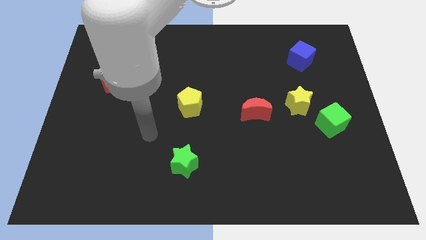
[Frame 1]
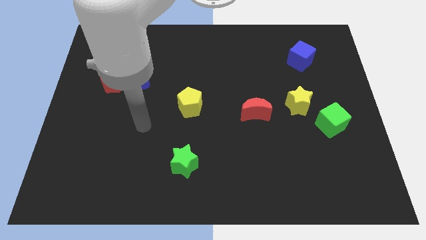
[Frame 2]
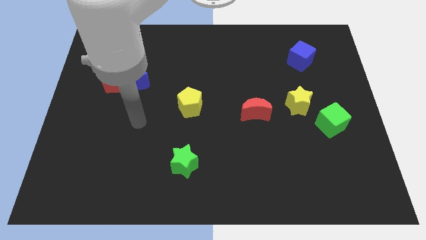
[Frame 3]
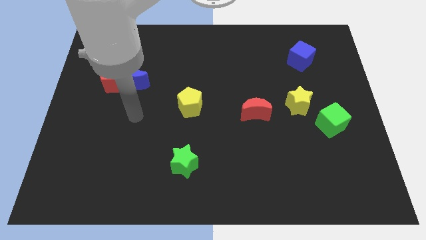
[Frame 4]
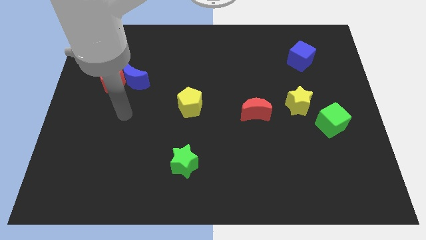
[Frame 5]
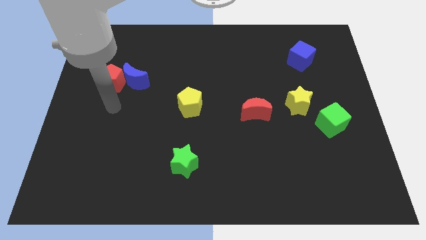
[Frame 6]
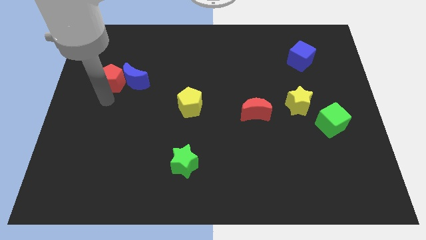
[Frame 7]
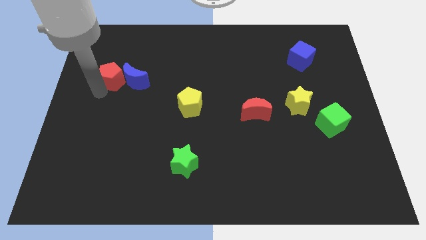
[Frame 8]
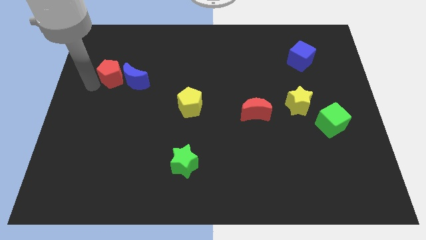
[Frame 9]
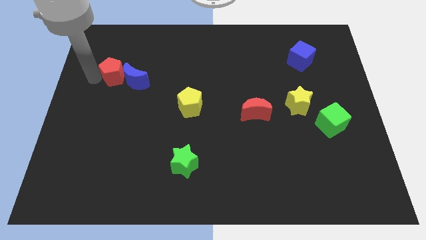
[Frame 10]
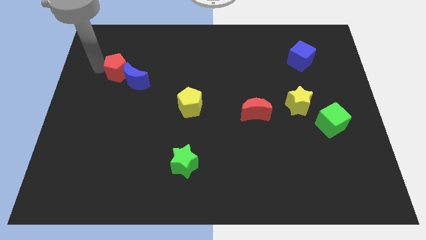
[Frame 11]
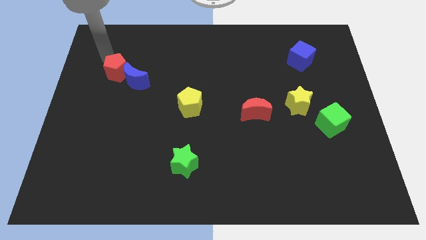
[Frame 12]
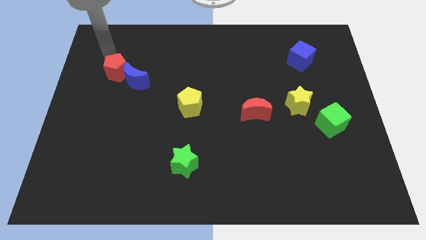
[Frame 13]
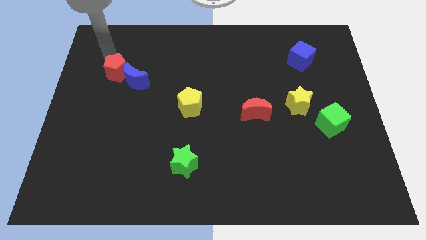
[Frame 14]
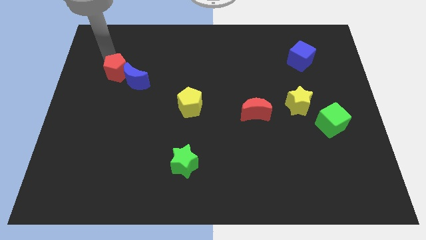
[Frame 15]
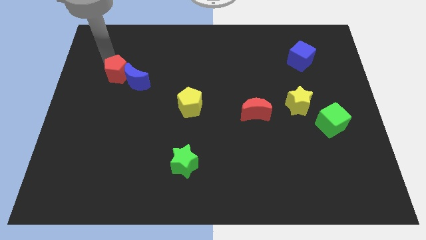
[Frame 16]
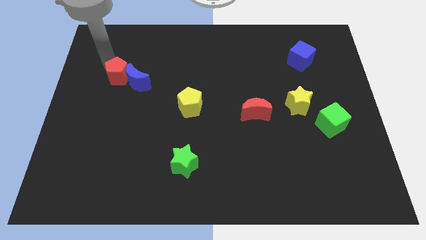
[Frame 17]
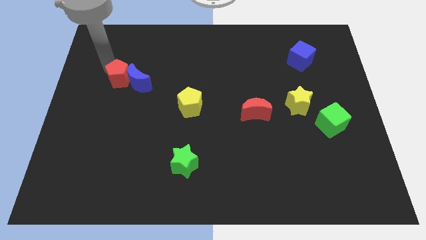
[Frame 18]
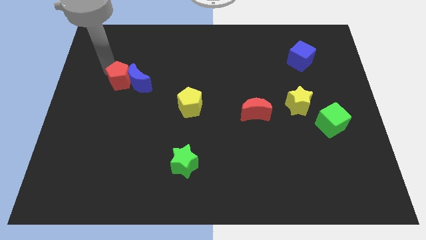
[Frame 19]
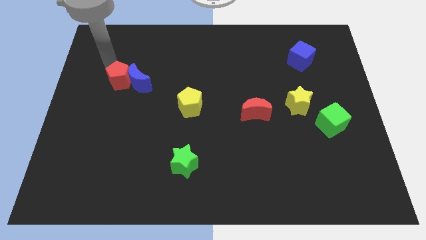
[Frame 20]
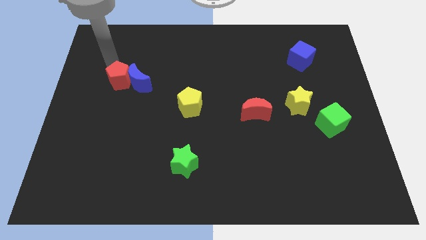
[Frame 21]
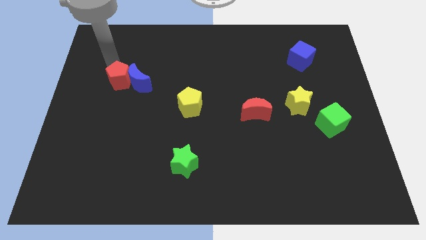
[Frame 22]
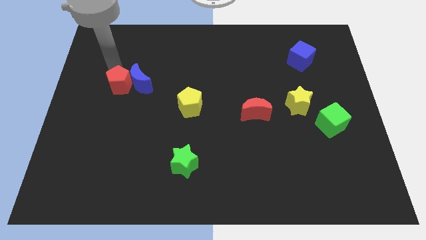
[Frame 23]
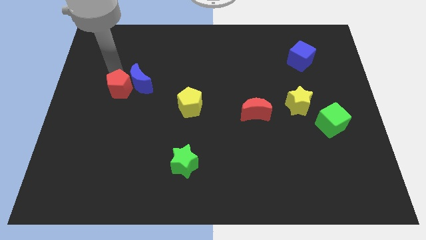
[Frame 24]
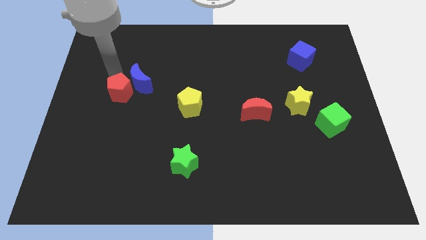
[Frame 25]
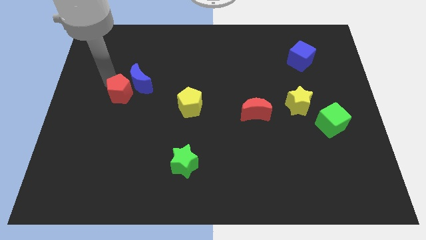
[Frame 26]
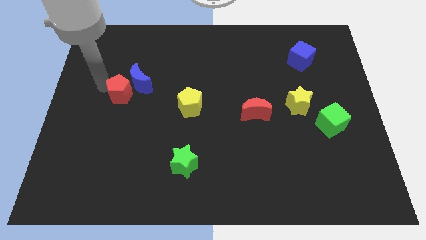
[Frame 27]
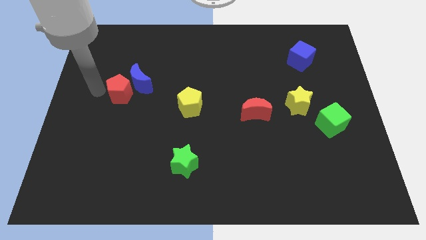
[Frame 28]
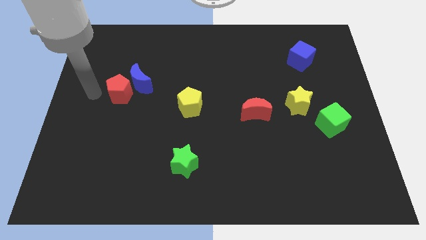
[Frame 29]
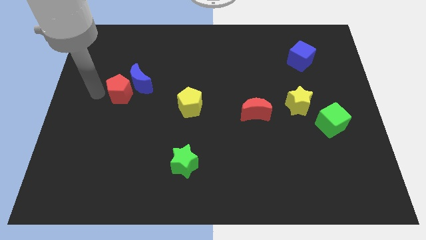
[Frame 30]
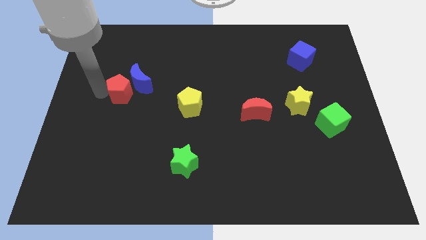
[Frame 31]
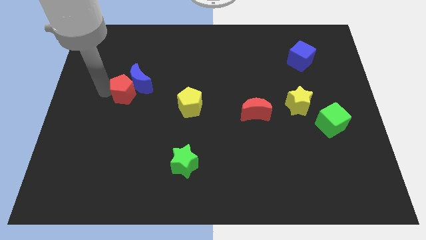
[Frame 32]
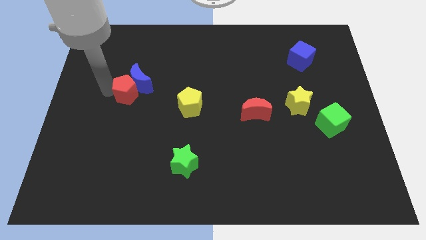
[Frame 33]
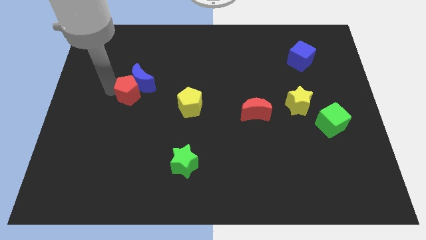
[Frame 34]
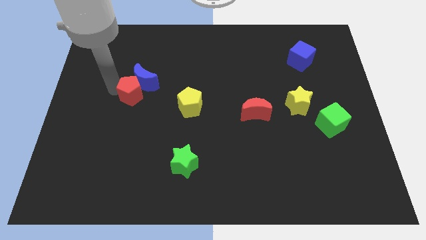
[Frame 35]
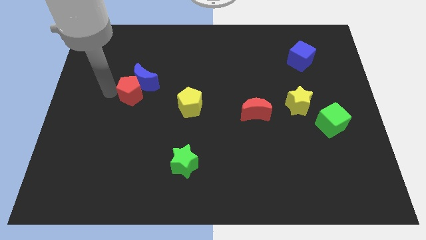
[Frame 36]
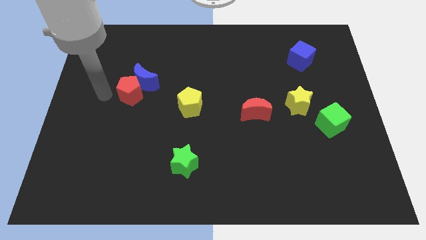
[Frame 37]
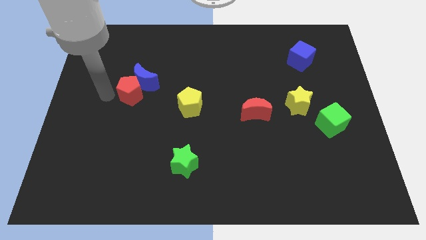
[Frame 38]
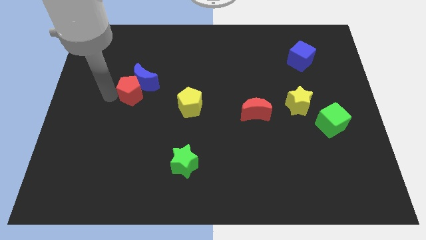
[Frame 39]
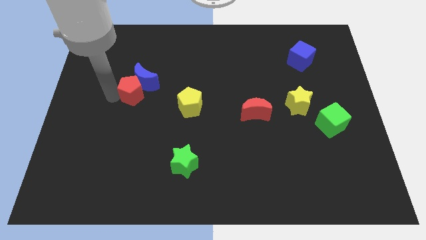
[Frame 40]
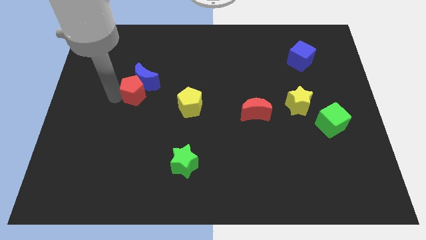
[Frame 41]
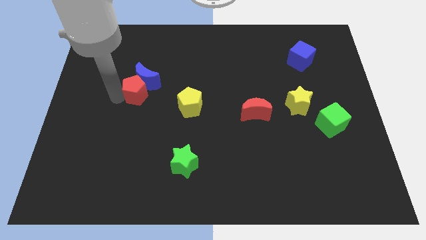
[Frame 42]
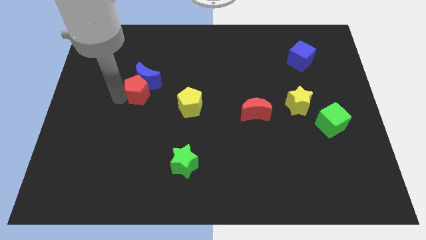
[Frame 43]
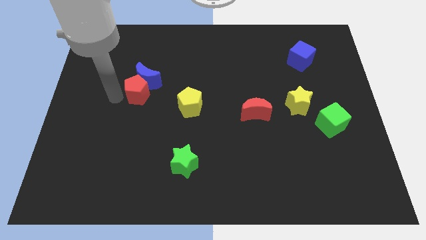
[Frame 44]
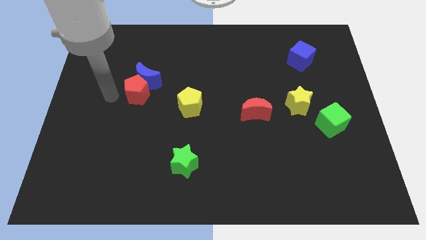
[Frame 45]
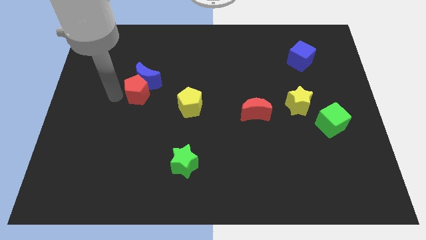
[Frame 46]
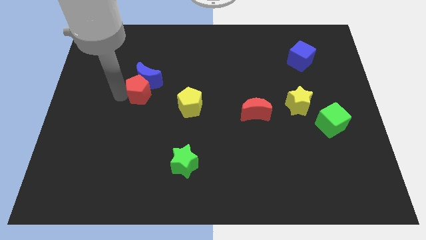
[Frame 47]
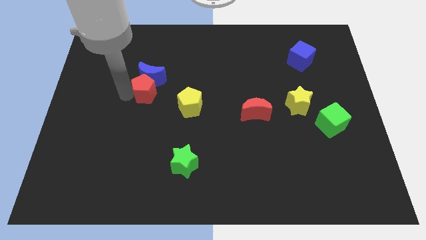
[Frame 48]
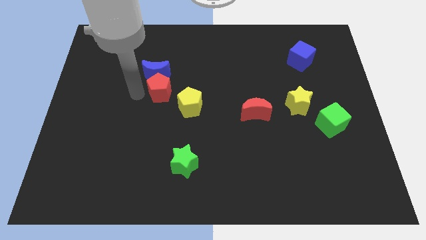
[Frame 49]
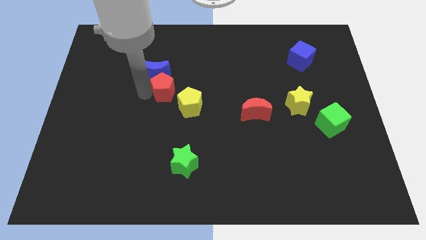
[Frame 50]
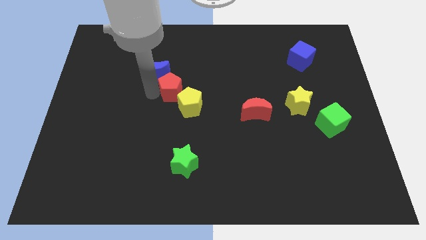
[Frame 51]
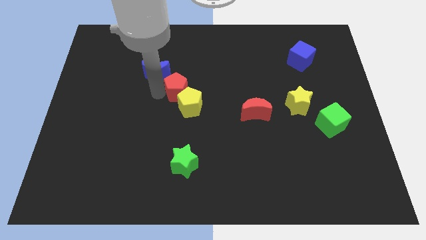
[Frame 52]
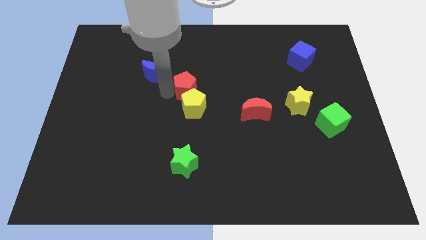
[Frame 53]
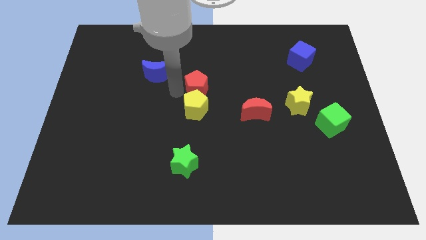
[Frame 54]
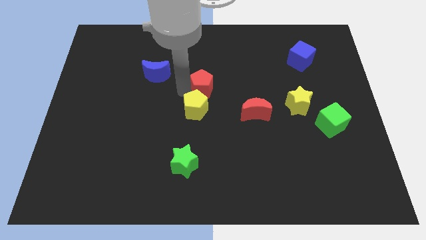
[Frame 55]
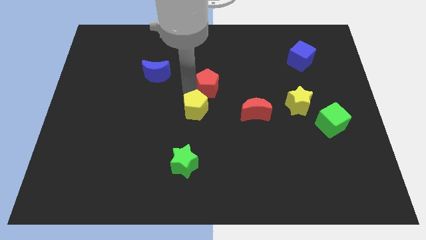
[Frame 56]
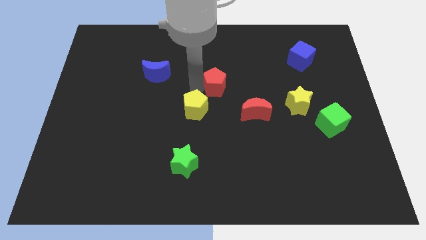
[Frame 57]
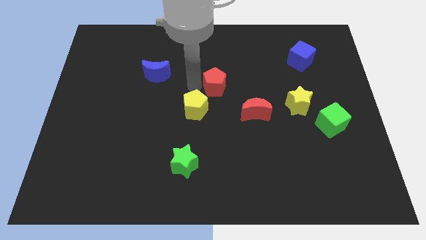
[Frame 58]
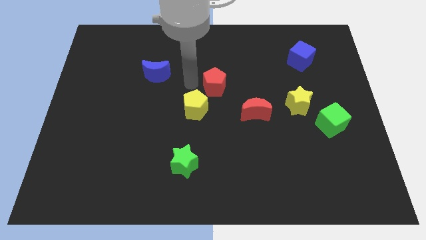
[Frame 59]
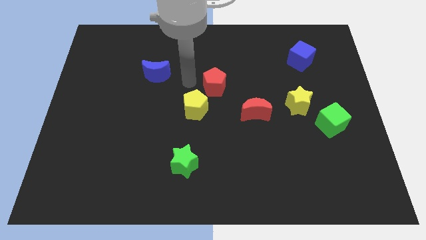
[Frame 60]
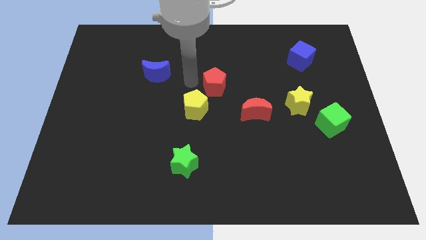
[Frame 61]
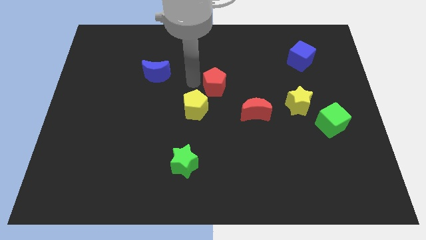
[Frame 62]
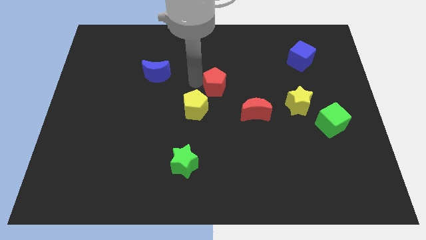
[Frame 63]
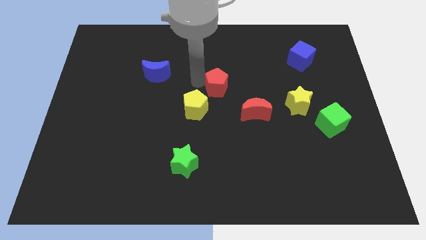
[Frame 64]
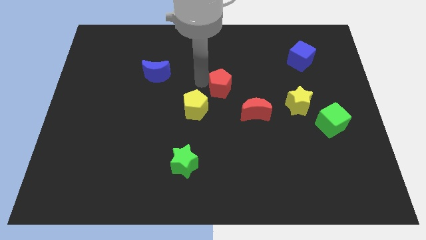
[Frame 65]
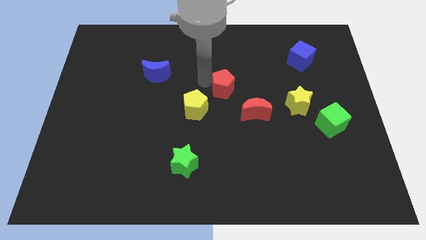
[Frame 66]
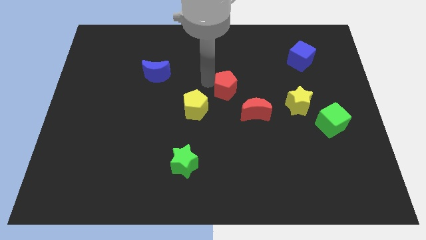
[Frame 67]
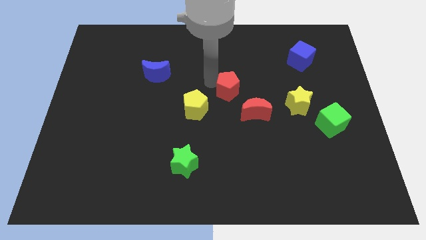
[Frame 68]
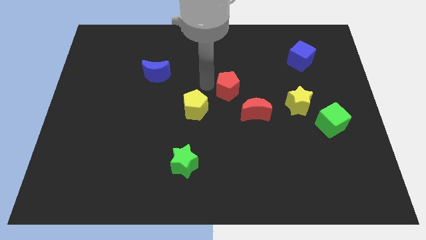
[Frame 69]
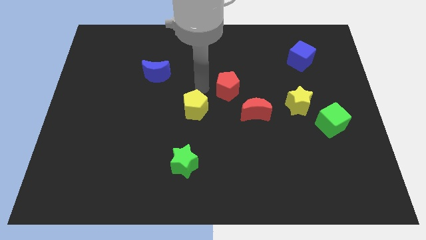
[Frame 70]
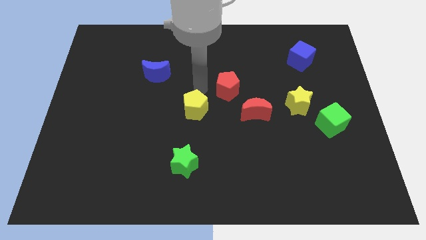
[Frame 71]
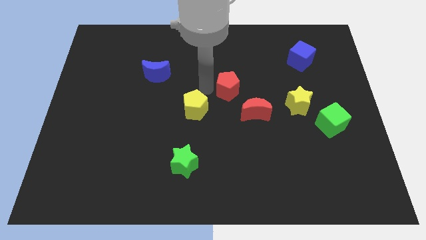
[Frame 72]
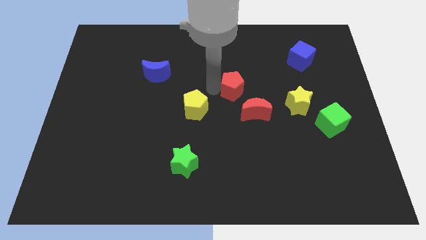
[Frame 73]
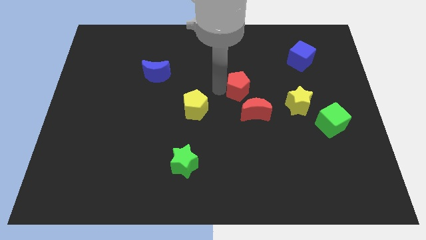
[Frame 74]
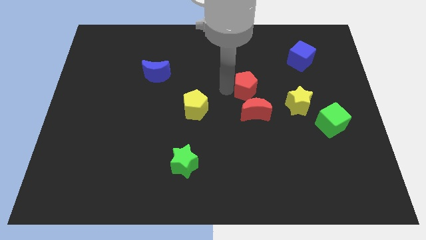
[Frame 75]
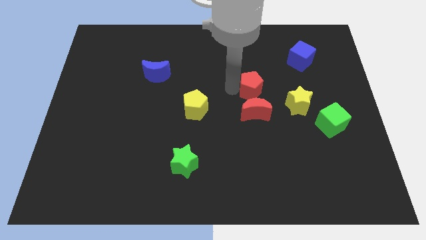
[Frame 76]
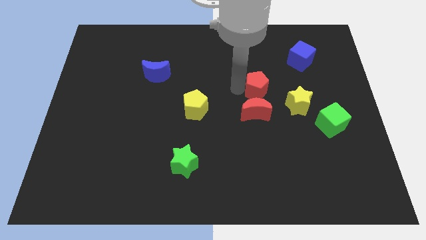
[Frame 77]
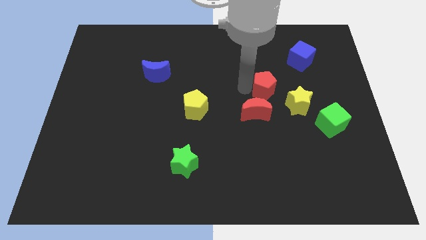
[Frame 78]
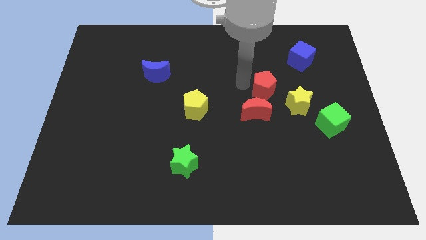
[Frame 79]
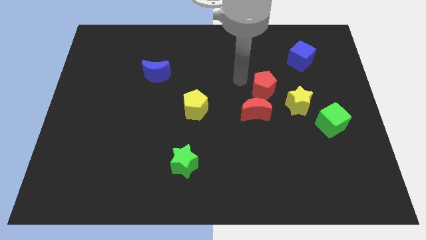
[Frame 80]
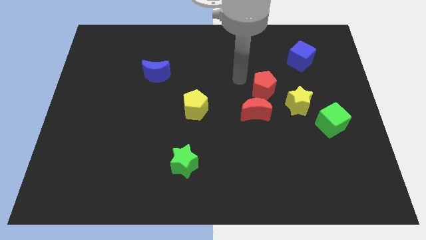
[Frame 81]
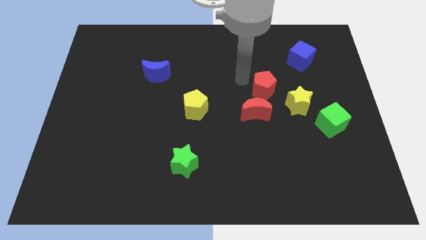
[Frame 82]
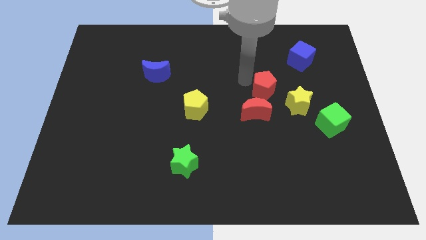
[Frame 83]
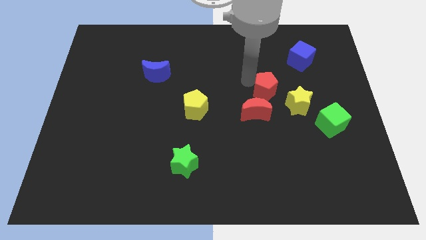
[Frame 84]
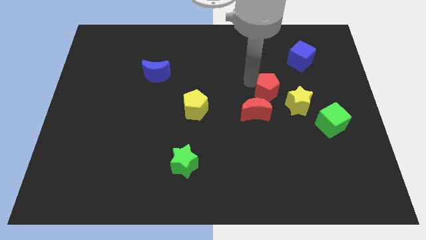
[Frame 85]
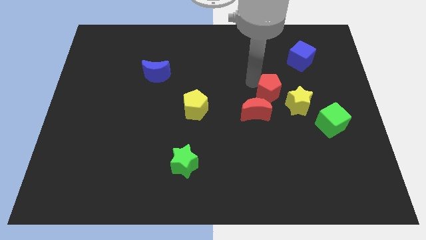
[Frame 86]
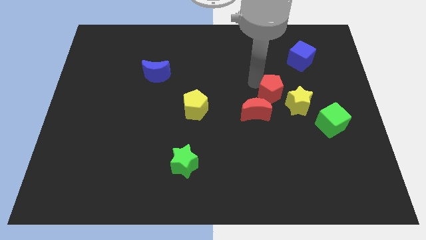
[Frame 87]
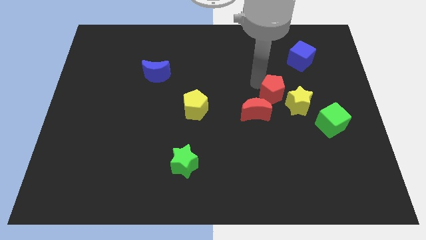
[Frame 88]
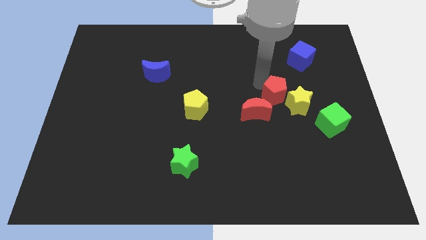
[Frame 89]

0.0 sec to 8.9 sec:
move the red pentagon towards the yellow star
